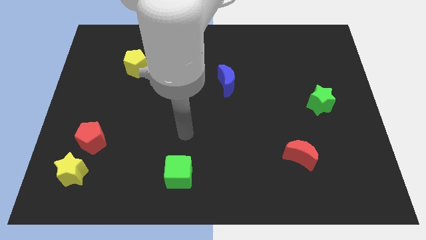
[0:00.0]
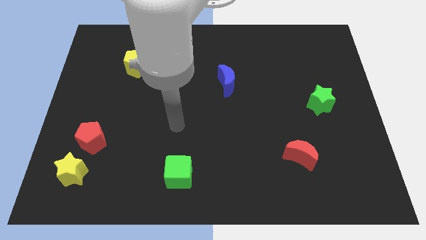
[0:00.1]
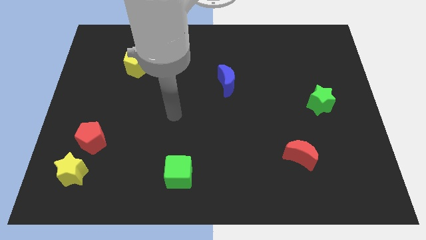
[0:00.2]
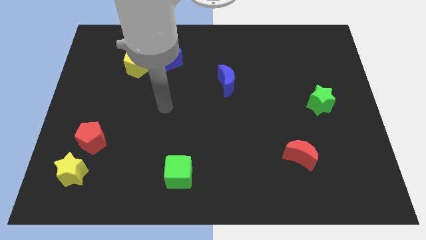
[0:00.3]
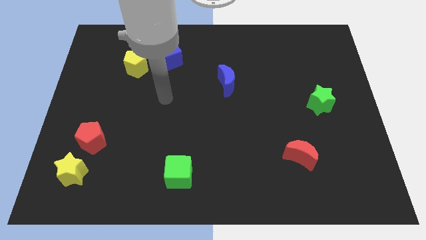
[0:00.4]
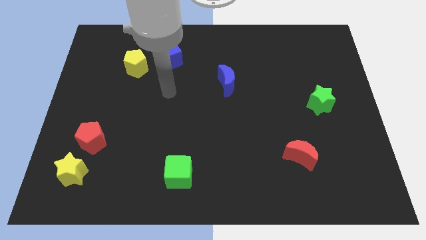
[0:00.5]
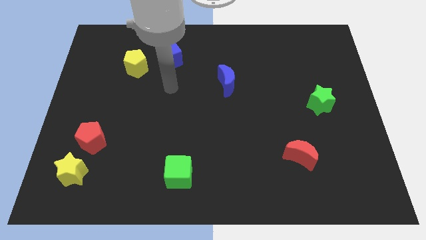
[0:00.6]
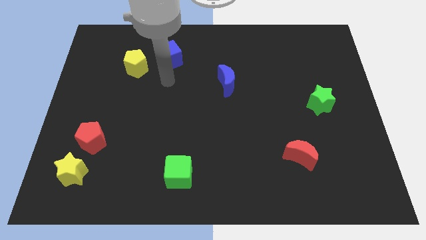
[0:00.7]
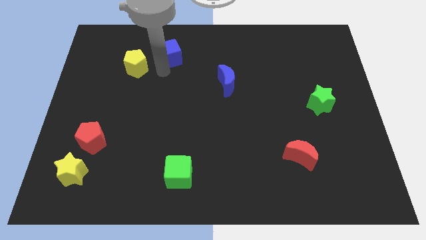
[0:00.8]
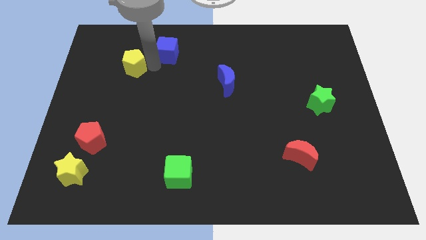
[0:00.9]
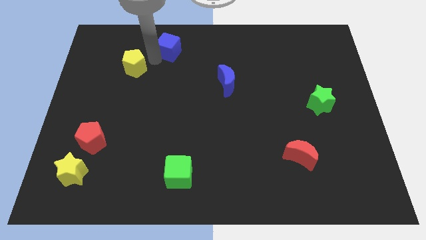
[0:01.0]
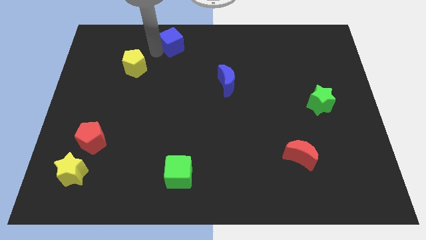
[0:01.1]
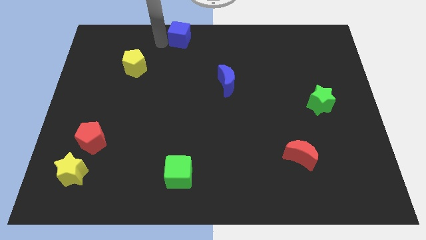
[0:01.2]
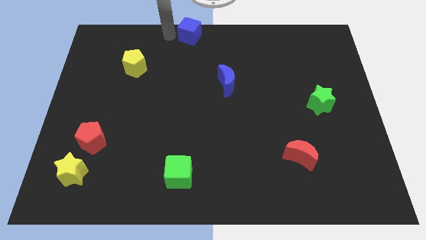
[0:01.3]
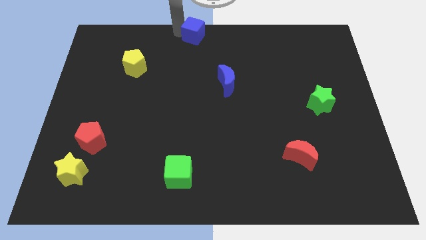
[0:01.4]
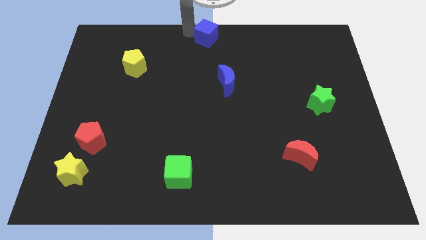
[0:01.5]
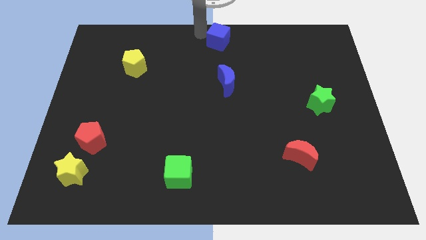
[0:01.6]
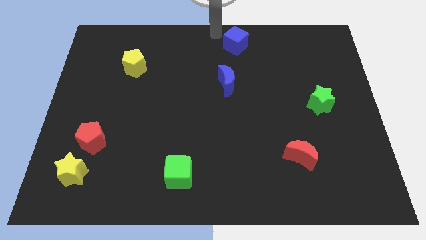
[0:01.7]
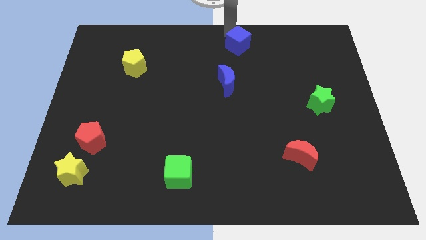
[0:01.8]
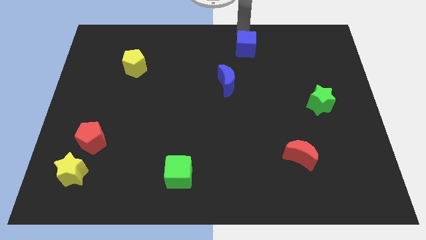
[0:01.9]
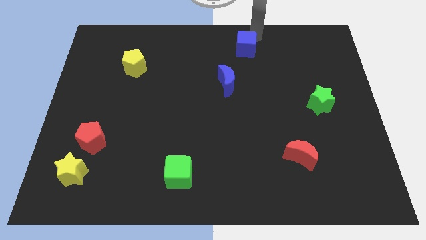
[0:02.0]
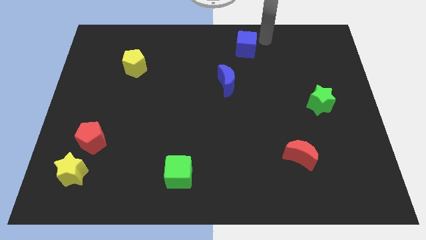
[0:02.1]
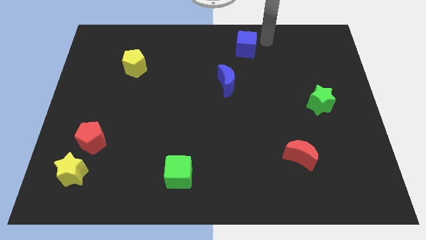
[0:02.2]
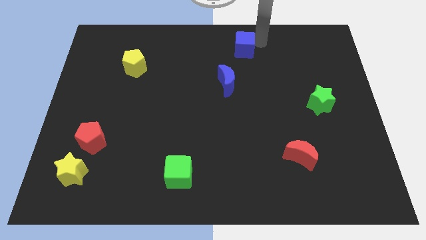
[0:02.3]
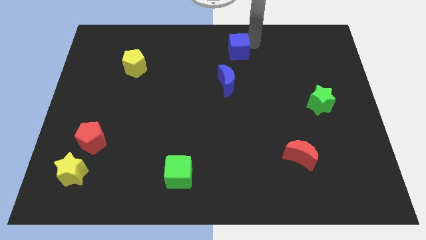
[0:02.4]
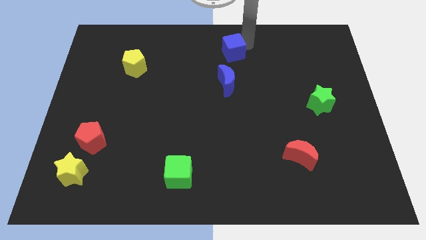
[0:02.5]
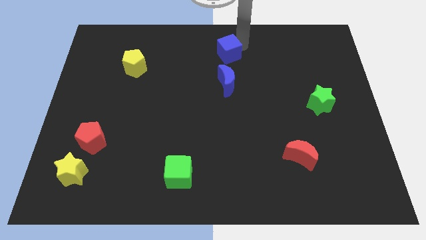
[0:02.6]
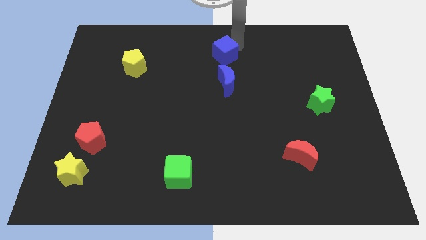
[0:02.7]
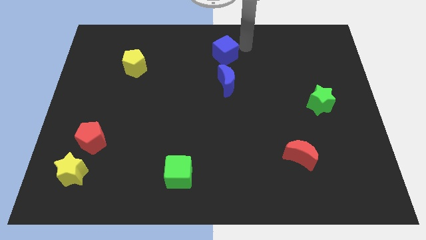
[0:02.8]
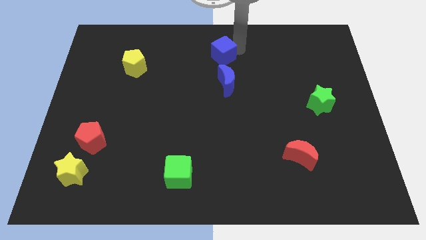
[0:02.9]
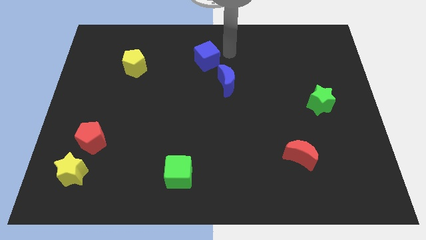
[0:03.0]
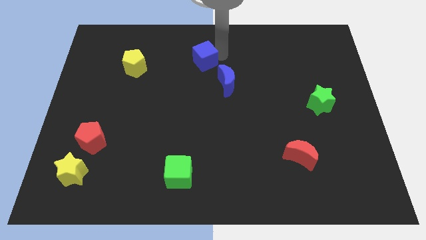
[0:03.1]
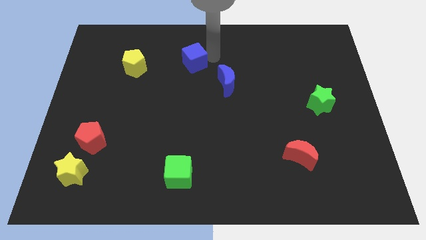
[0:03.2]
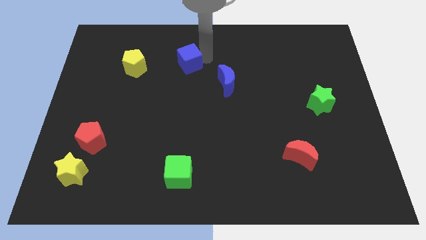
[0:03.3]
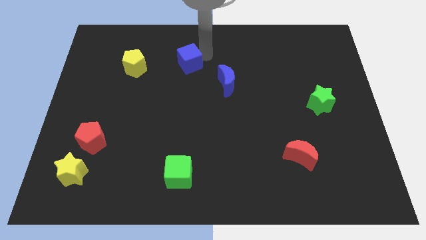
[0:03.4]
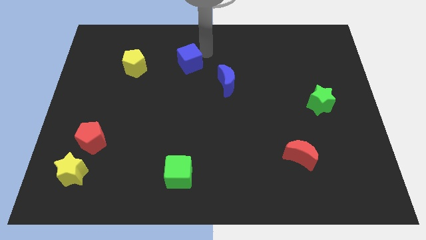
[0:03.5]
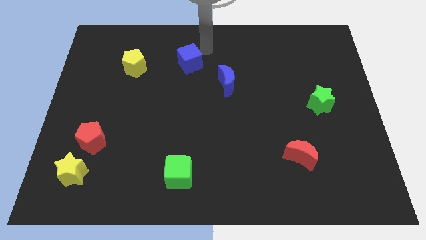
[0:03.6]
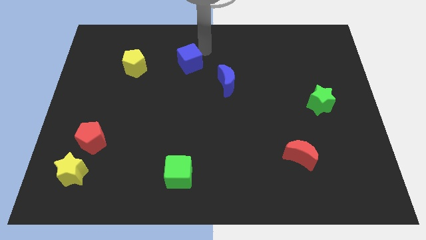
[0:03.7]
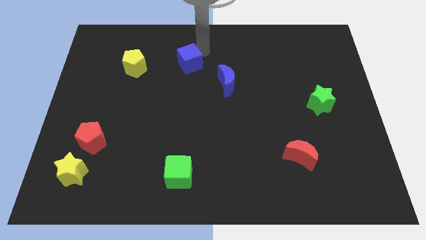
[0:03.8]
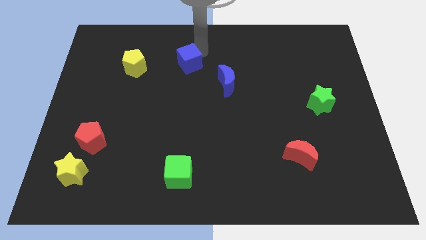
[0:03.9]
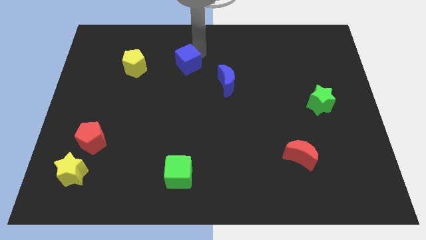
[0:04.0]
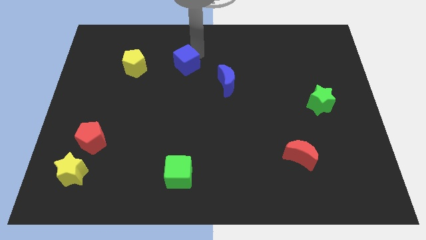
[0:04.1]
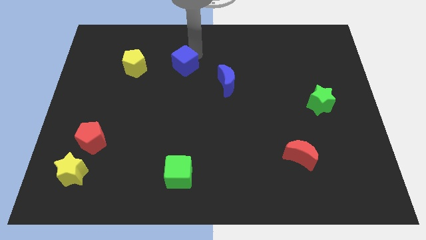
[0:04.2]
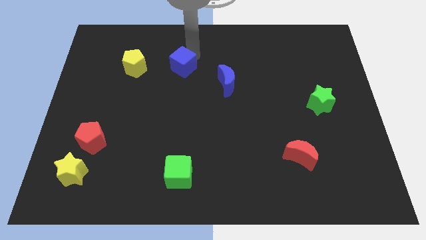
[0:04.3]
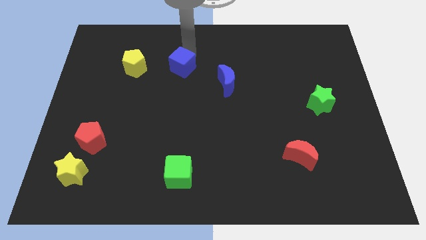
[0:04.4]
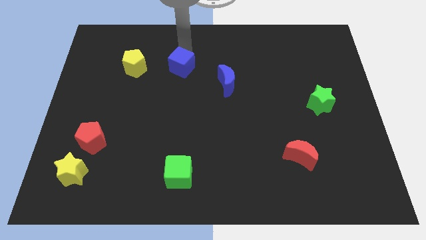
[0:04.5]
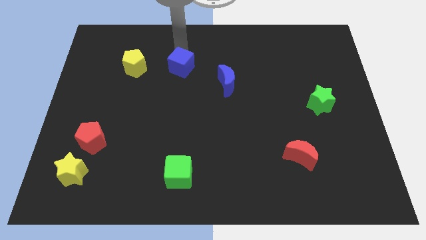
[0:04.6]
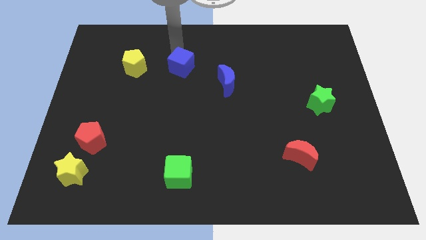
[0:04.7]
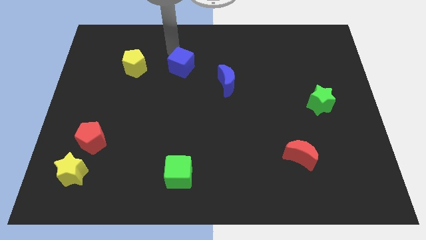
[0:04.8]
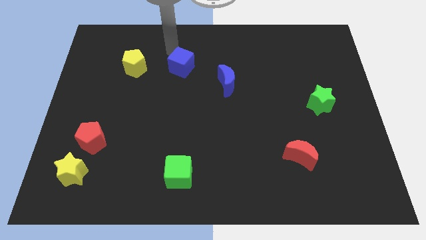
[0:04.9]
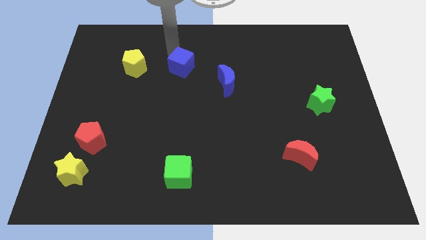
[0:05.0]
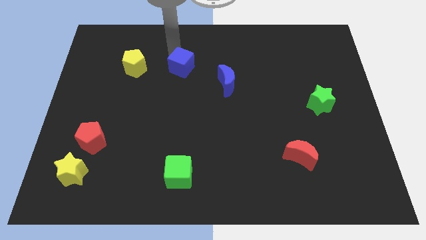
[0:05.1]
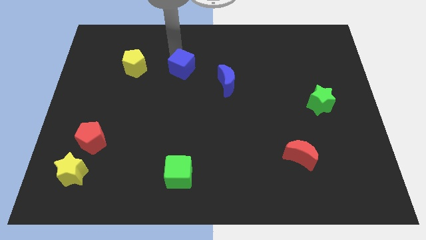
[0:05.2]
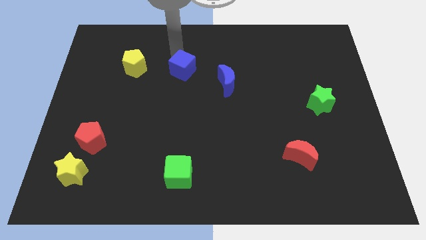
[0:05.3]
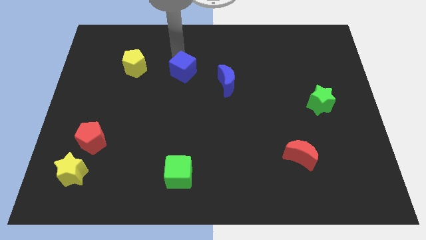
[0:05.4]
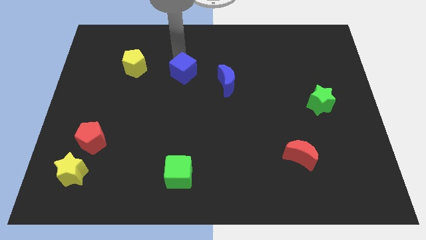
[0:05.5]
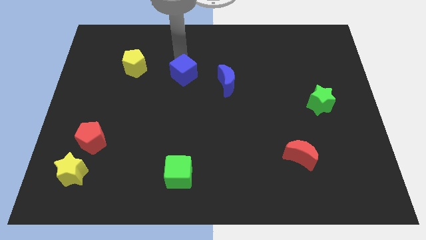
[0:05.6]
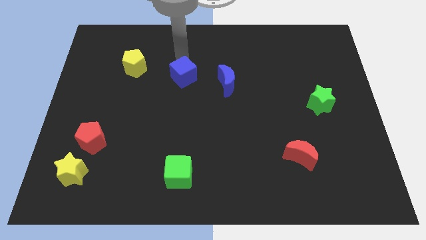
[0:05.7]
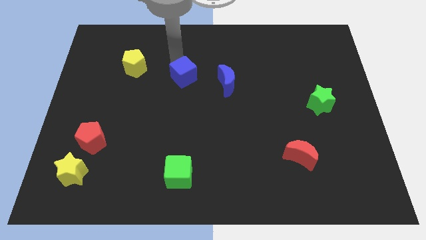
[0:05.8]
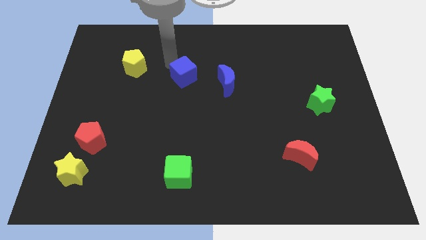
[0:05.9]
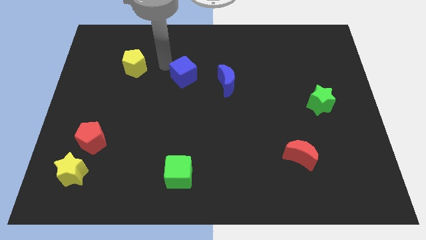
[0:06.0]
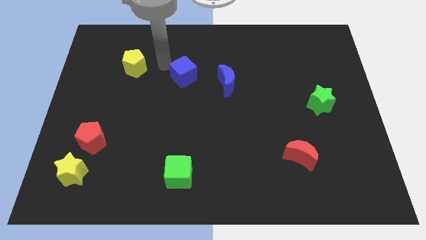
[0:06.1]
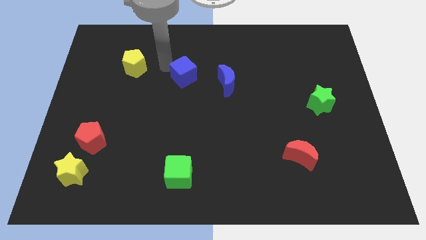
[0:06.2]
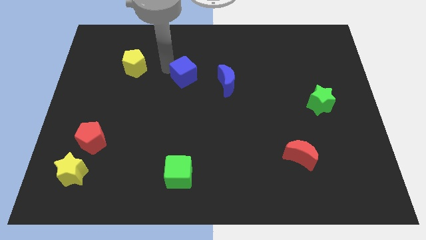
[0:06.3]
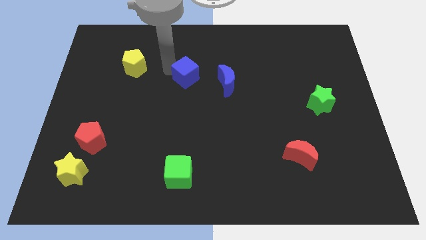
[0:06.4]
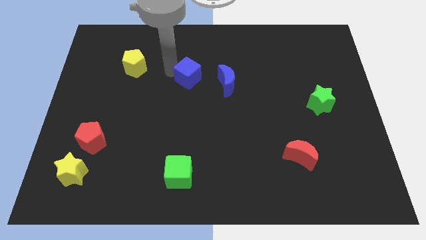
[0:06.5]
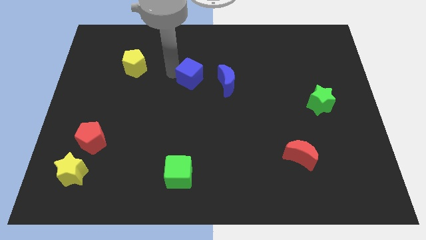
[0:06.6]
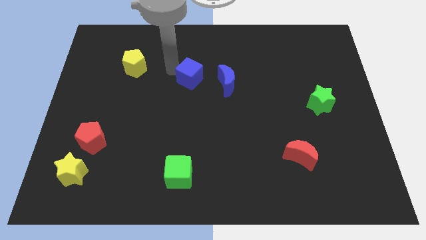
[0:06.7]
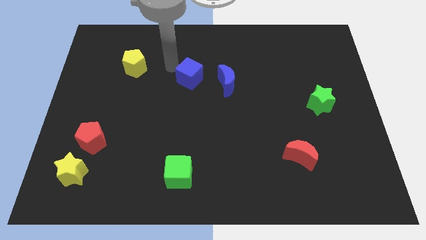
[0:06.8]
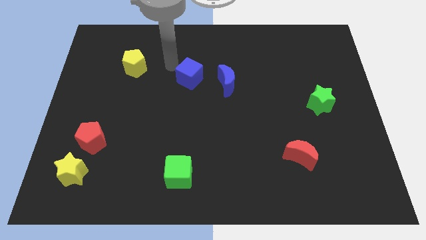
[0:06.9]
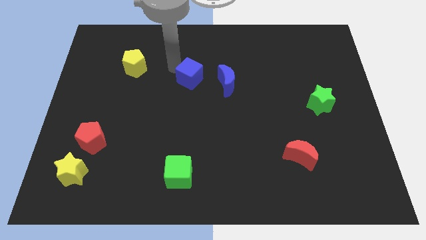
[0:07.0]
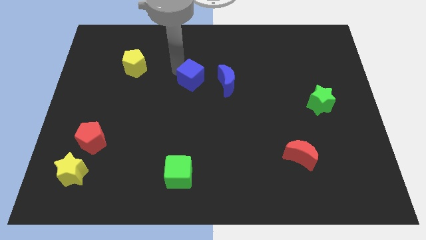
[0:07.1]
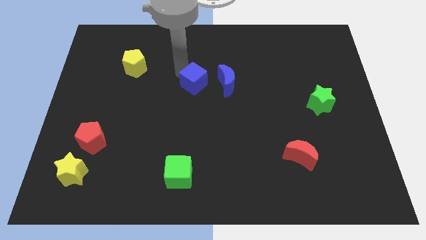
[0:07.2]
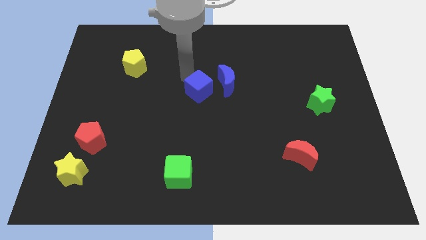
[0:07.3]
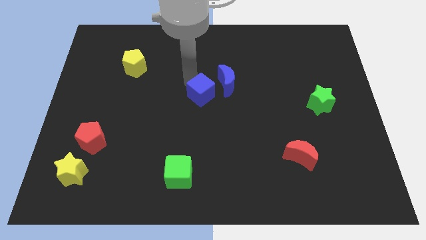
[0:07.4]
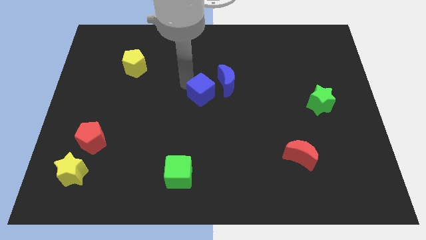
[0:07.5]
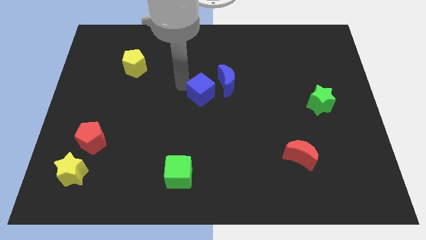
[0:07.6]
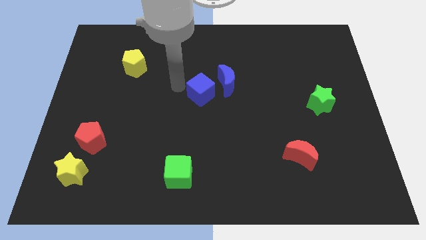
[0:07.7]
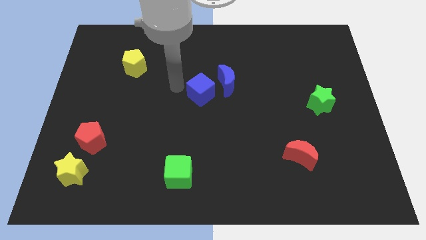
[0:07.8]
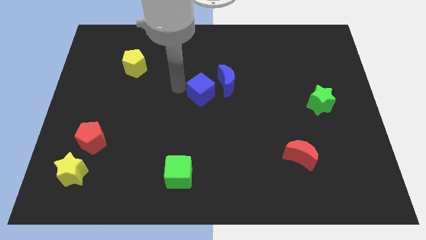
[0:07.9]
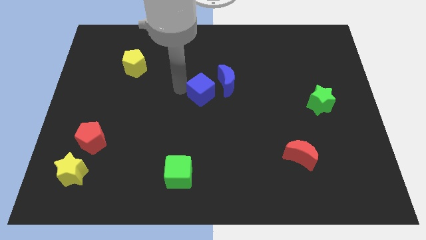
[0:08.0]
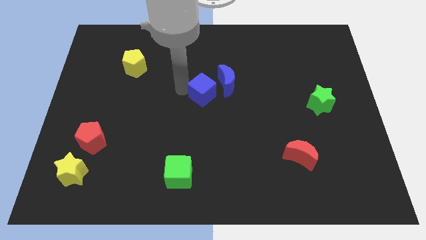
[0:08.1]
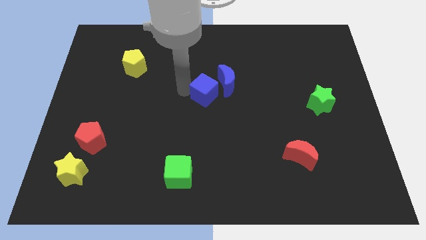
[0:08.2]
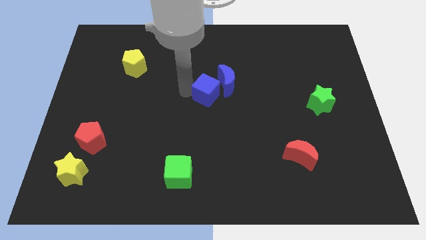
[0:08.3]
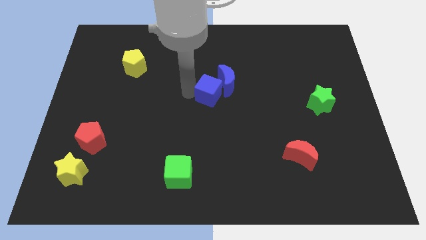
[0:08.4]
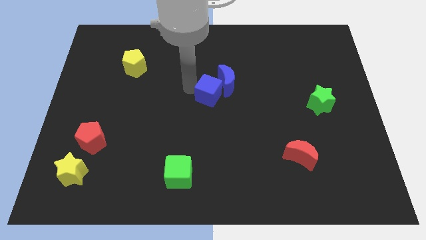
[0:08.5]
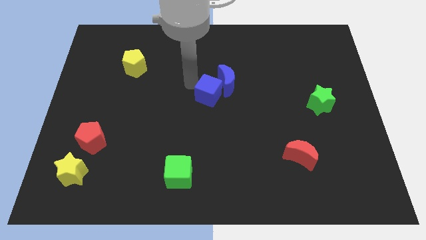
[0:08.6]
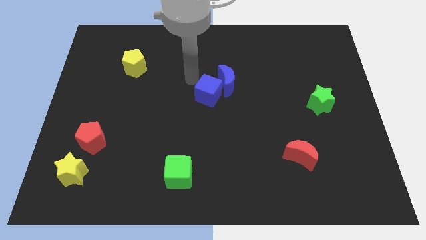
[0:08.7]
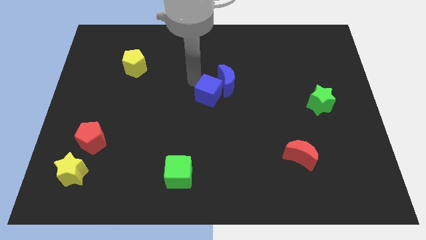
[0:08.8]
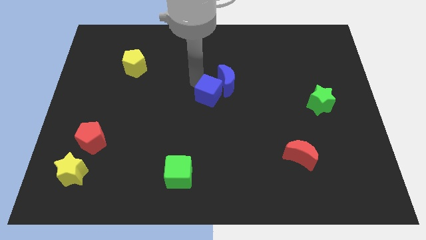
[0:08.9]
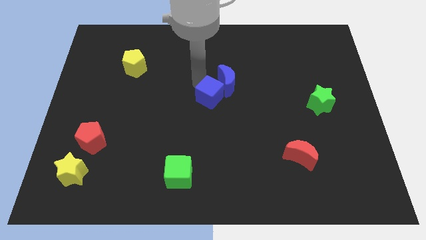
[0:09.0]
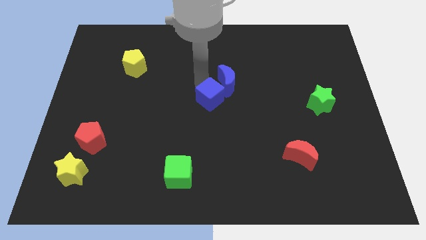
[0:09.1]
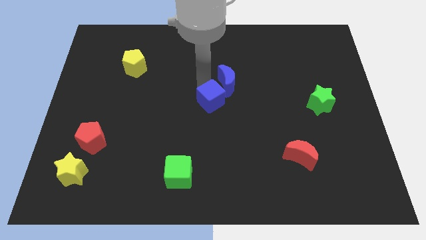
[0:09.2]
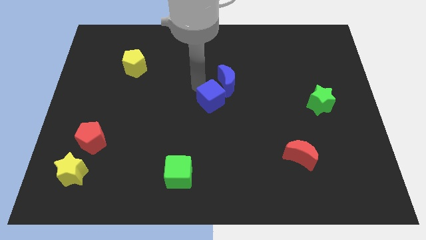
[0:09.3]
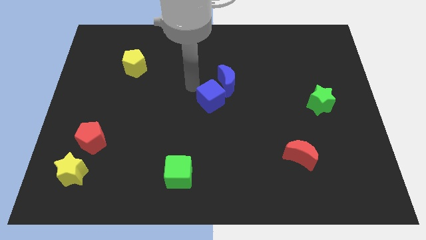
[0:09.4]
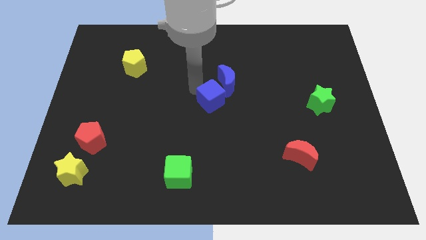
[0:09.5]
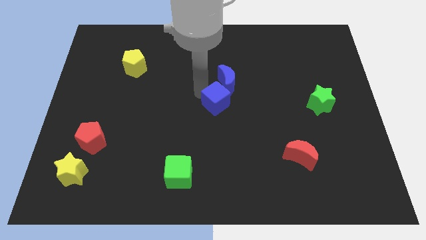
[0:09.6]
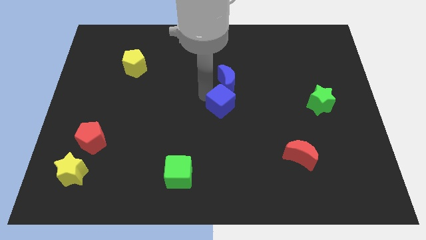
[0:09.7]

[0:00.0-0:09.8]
move the blue cube downwards and right
